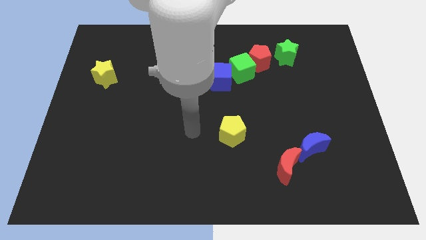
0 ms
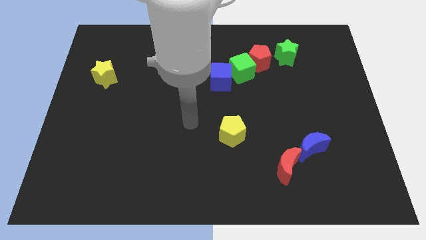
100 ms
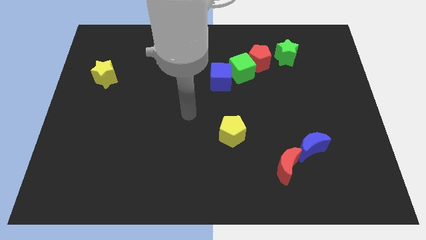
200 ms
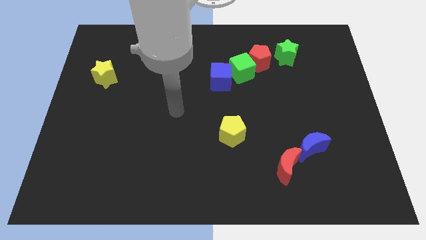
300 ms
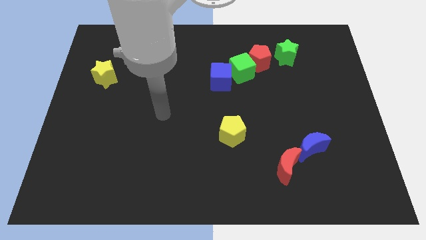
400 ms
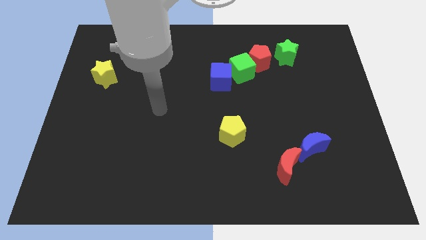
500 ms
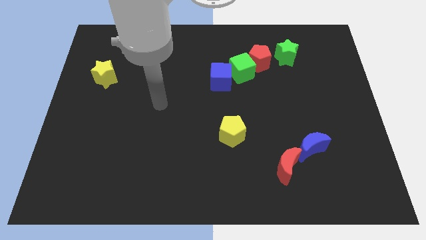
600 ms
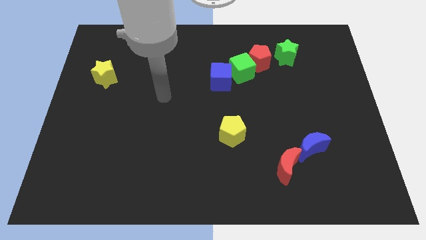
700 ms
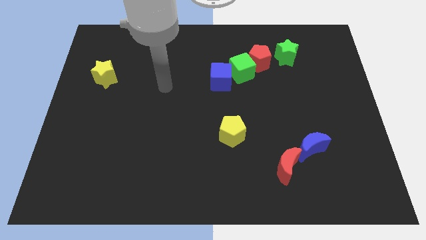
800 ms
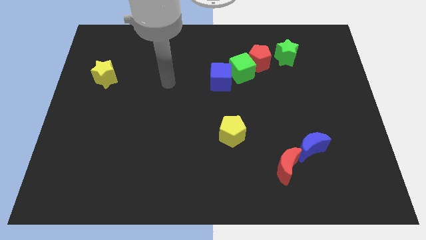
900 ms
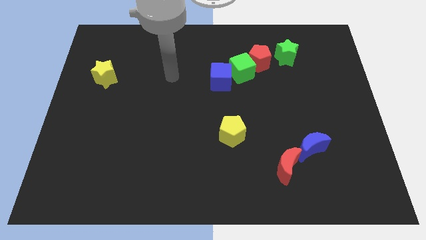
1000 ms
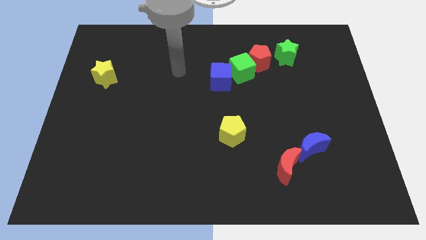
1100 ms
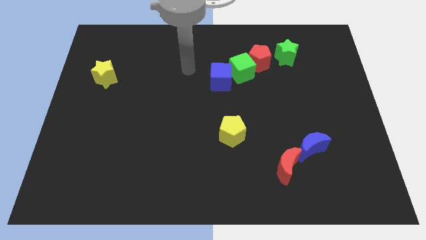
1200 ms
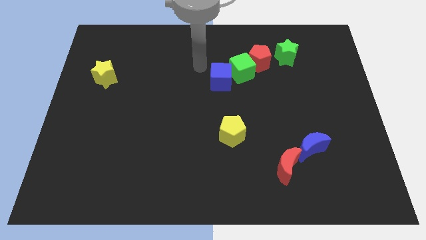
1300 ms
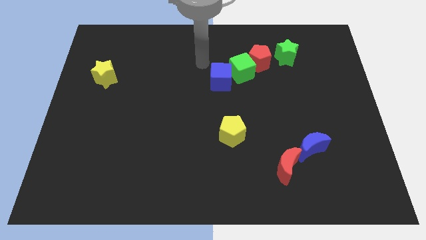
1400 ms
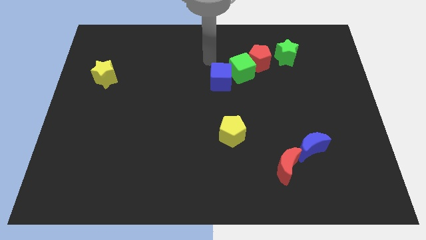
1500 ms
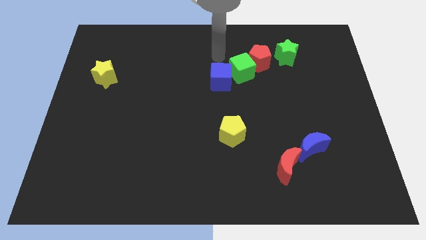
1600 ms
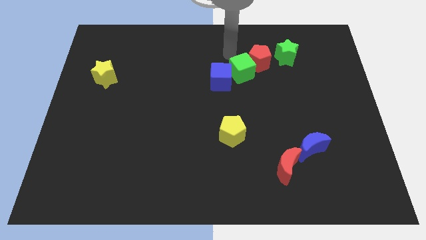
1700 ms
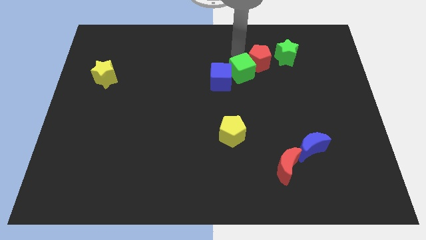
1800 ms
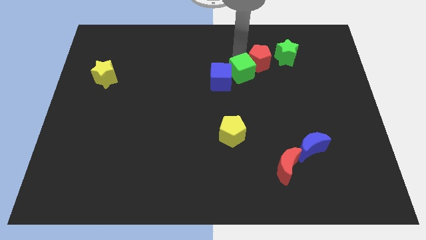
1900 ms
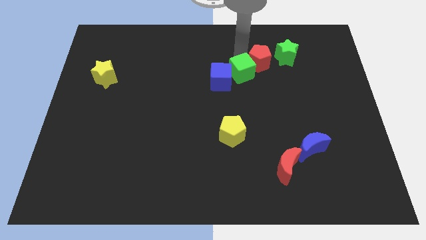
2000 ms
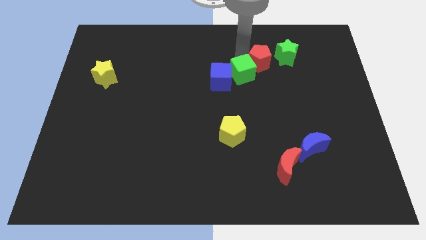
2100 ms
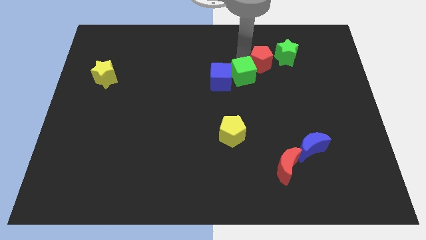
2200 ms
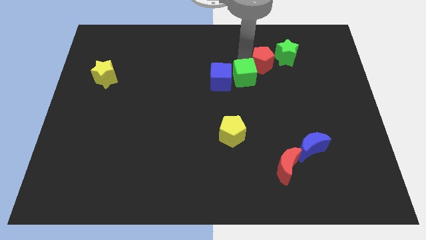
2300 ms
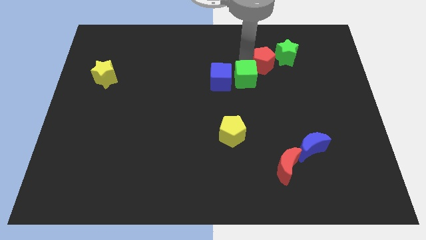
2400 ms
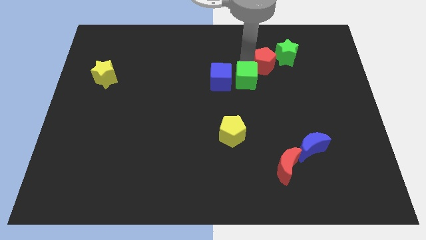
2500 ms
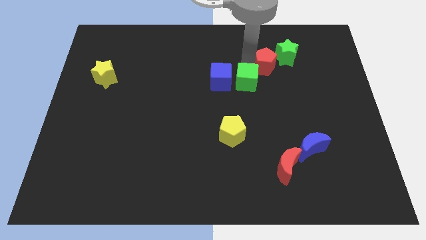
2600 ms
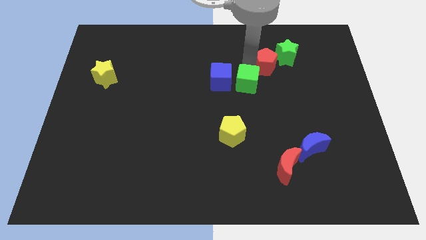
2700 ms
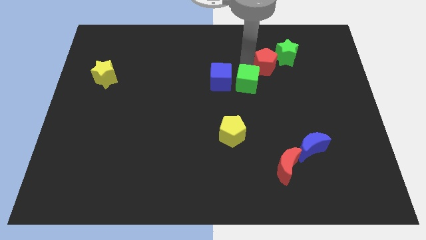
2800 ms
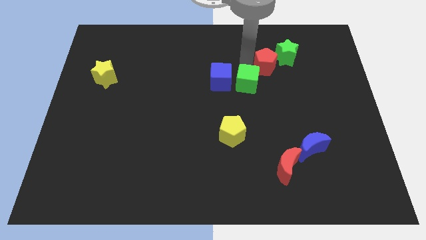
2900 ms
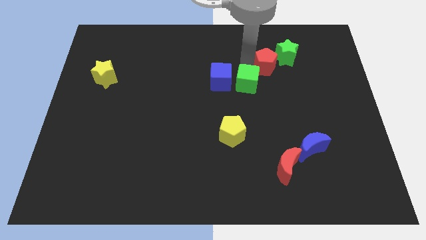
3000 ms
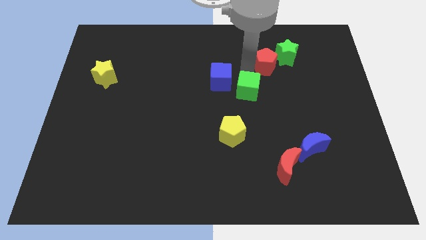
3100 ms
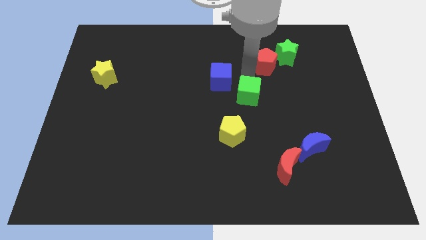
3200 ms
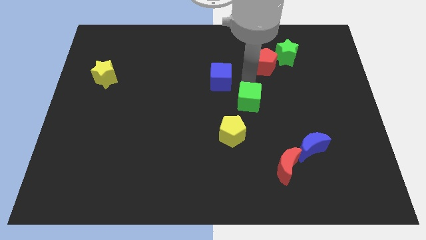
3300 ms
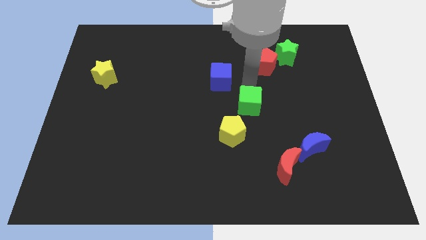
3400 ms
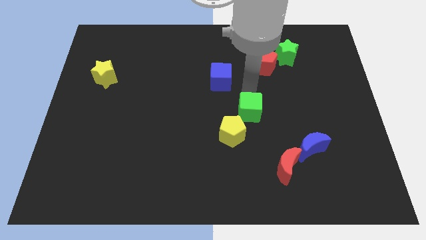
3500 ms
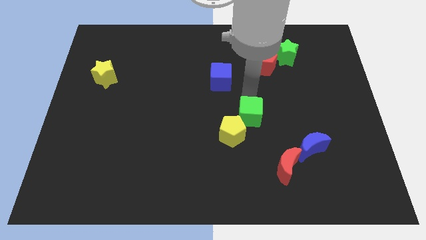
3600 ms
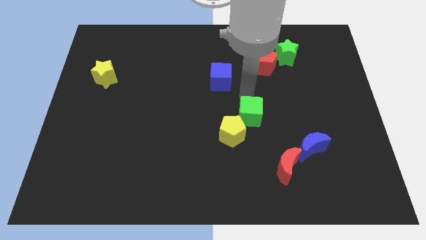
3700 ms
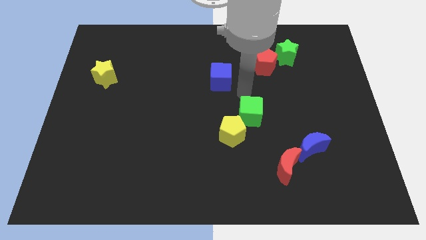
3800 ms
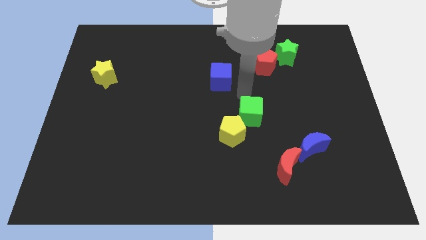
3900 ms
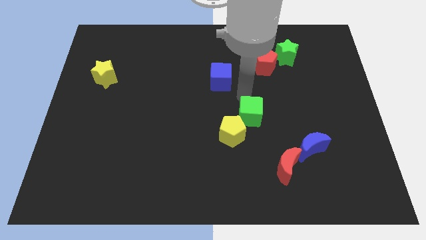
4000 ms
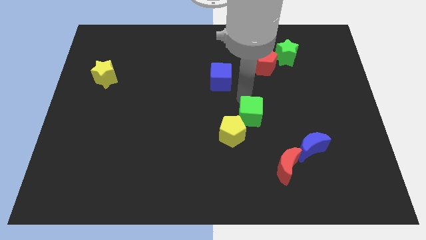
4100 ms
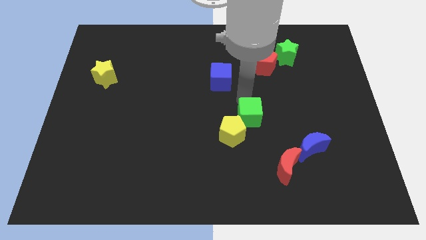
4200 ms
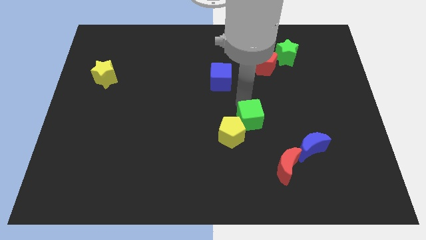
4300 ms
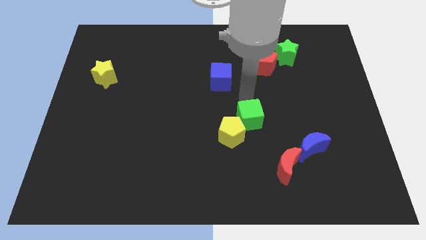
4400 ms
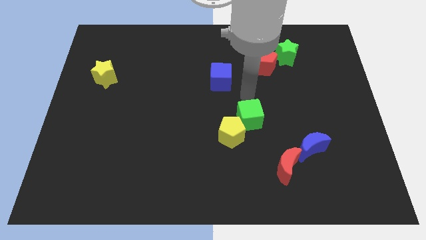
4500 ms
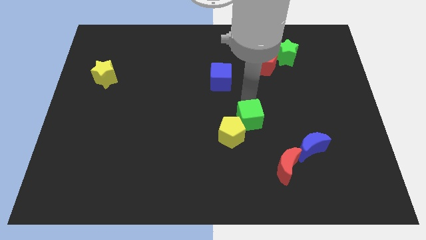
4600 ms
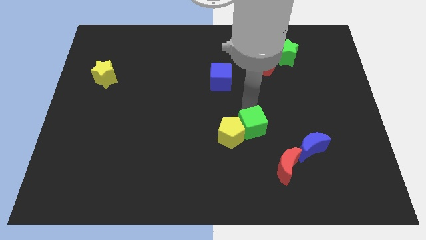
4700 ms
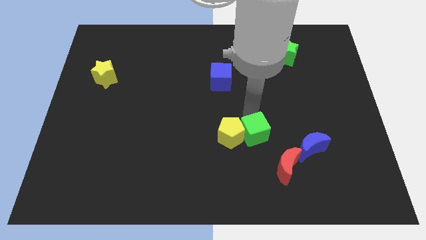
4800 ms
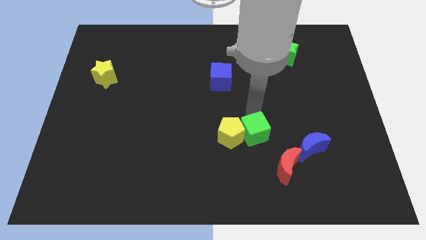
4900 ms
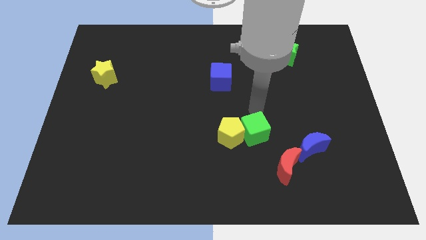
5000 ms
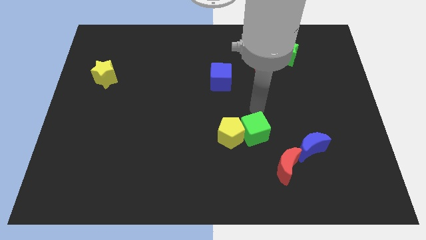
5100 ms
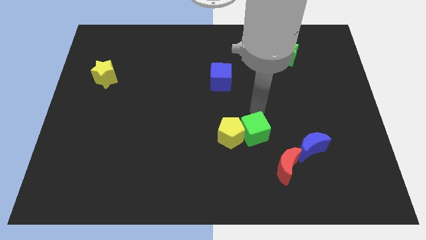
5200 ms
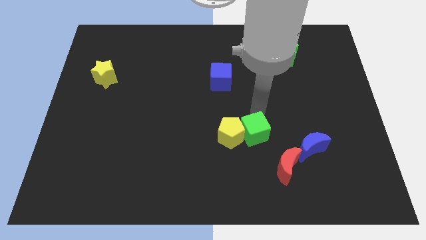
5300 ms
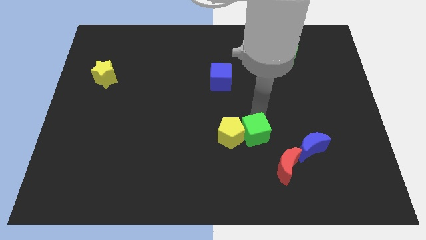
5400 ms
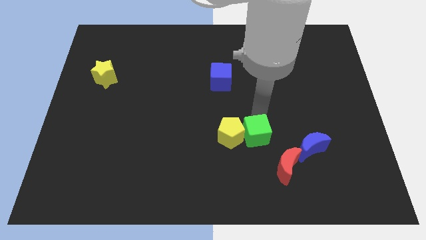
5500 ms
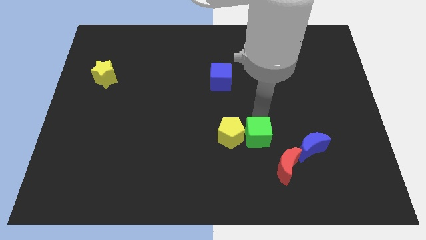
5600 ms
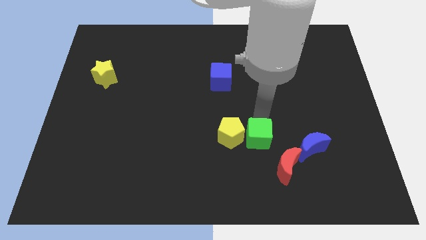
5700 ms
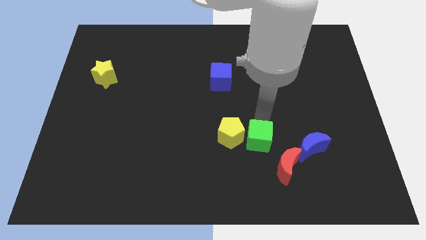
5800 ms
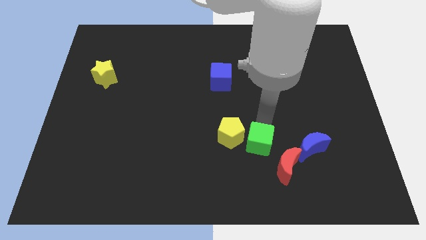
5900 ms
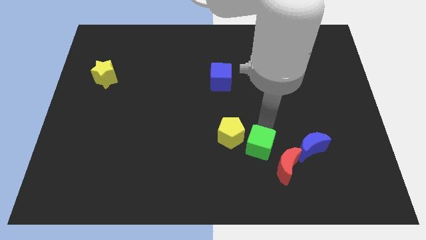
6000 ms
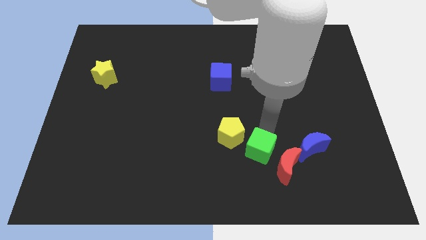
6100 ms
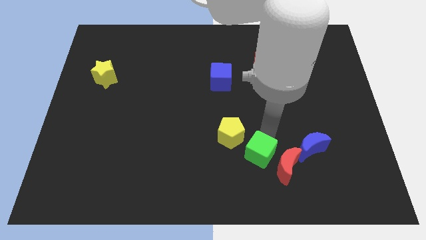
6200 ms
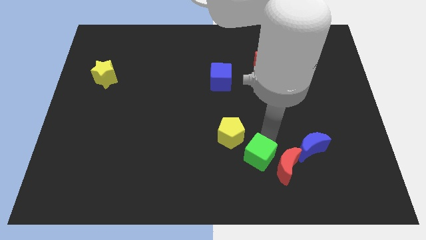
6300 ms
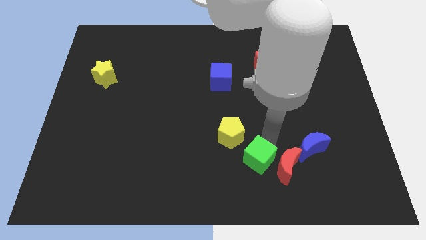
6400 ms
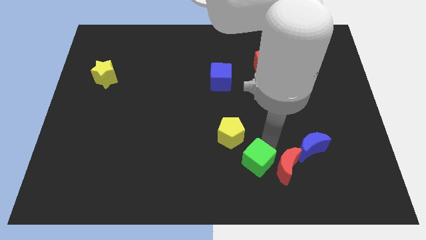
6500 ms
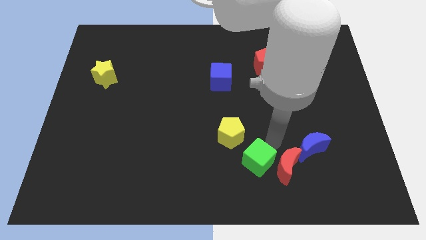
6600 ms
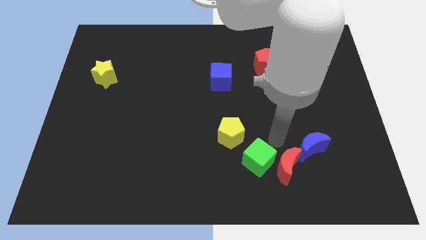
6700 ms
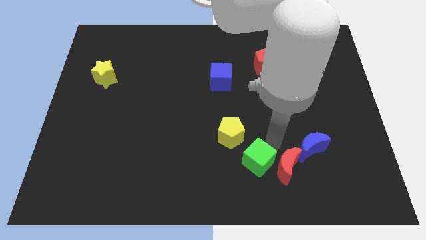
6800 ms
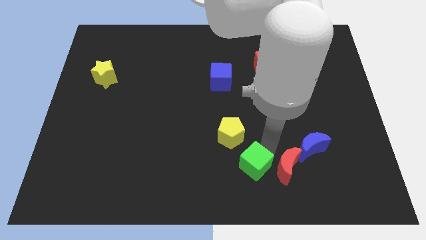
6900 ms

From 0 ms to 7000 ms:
slide the green cube to the bottom
